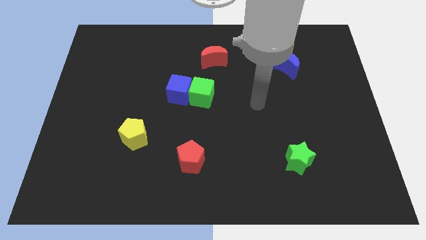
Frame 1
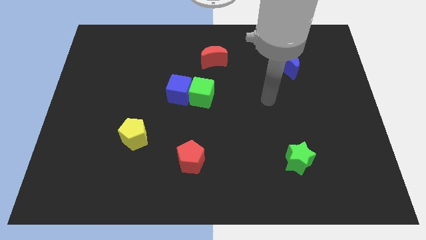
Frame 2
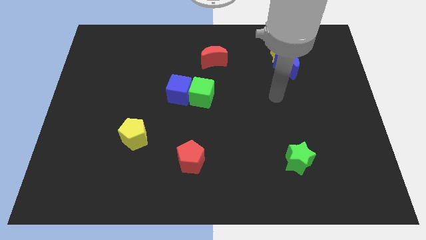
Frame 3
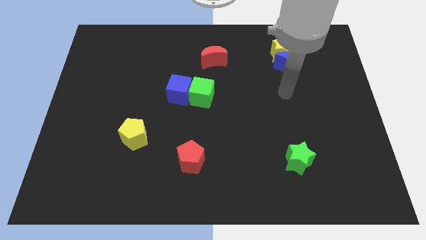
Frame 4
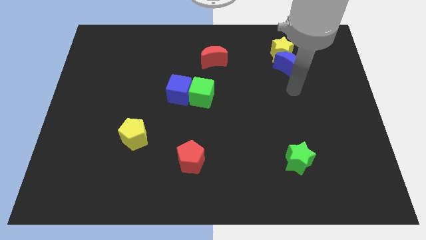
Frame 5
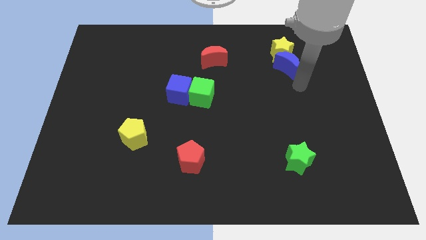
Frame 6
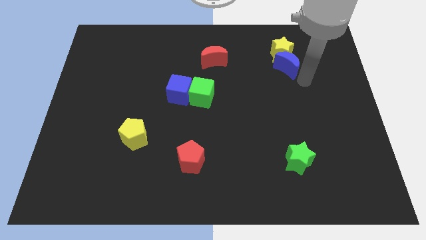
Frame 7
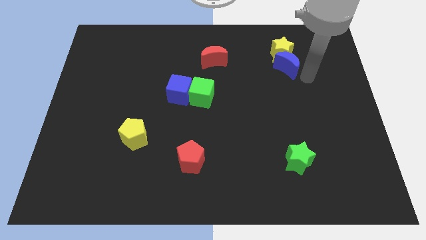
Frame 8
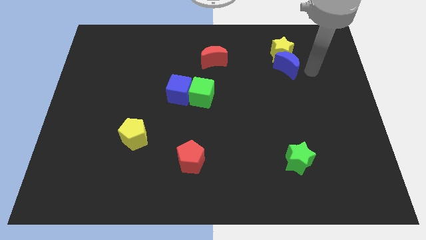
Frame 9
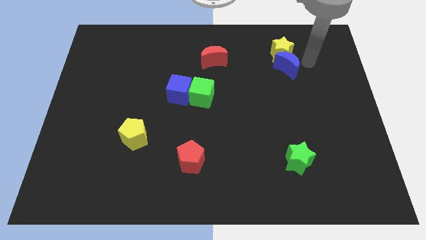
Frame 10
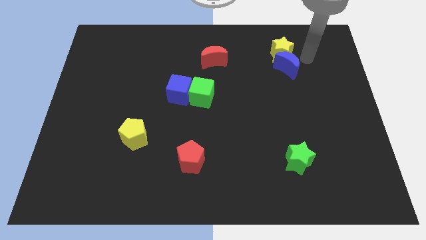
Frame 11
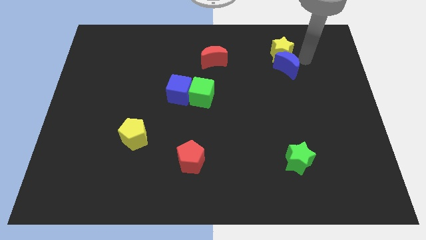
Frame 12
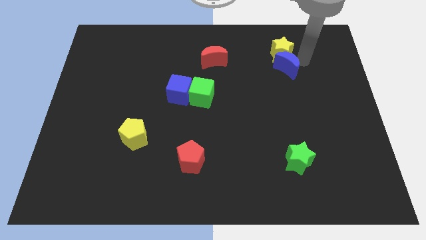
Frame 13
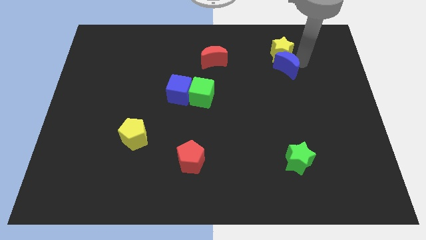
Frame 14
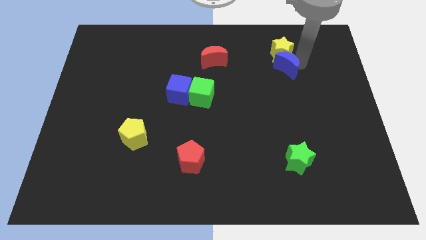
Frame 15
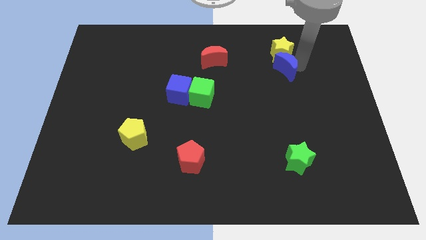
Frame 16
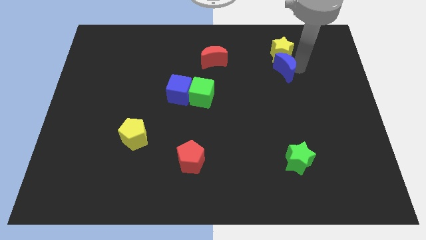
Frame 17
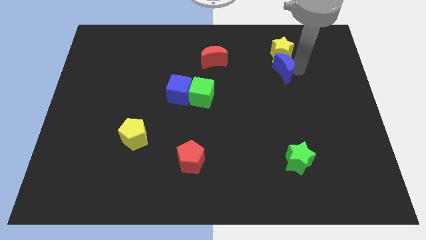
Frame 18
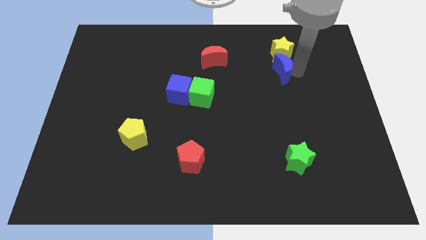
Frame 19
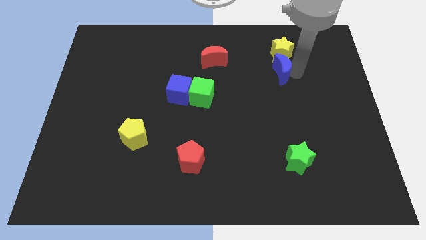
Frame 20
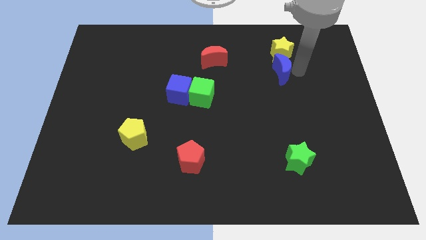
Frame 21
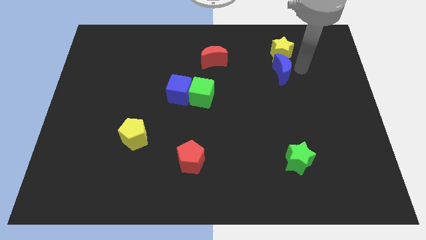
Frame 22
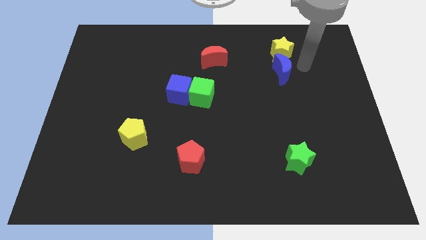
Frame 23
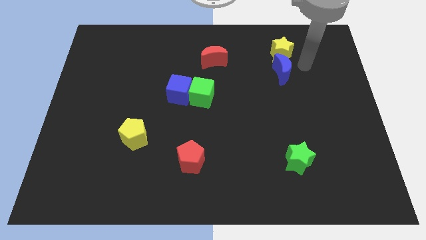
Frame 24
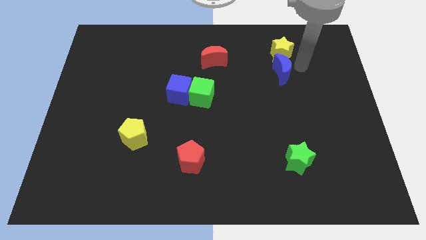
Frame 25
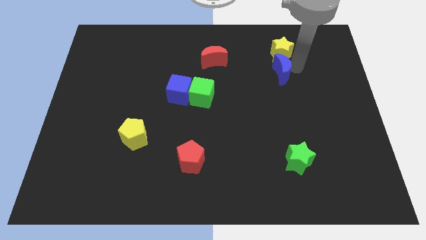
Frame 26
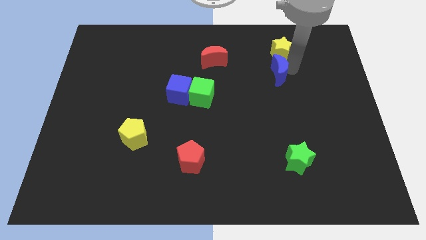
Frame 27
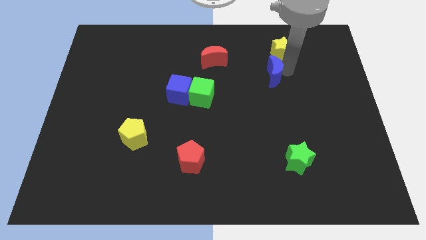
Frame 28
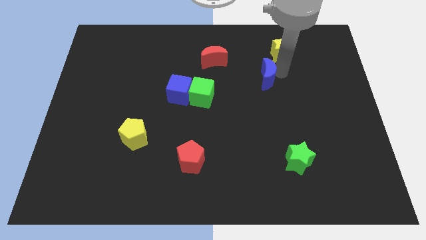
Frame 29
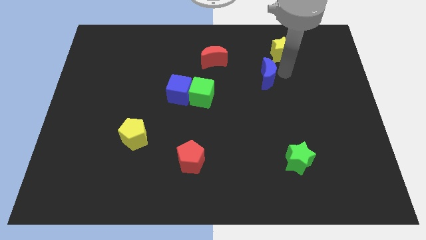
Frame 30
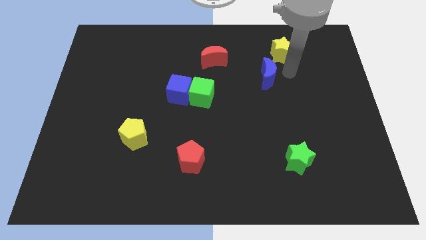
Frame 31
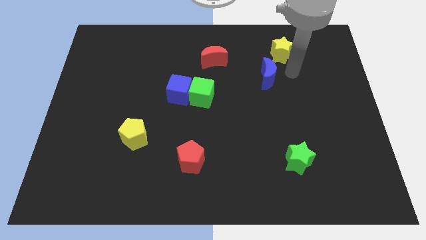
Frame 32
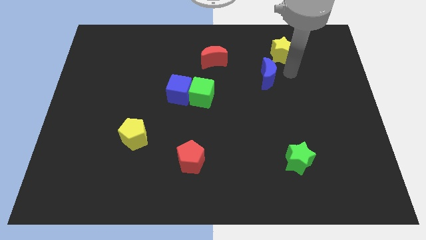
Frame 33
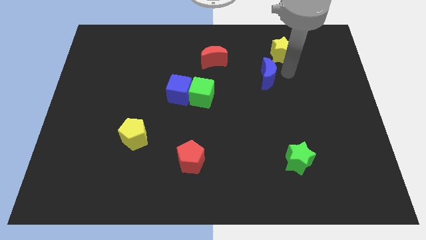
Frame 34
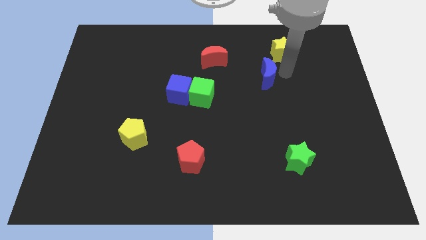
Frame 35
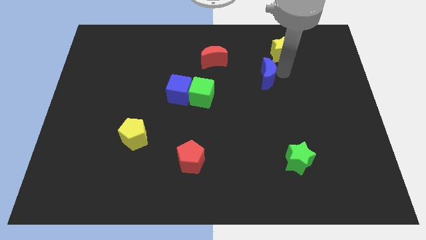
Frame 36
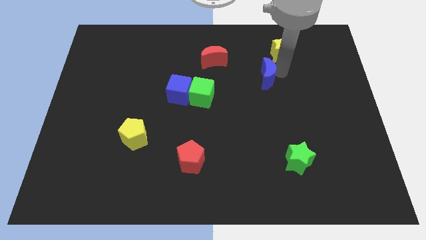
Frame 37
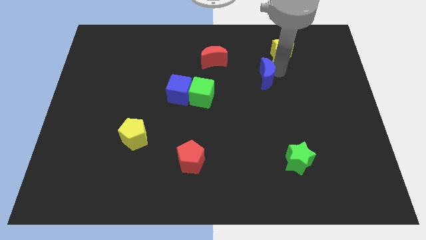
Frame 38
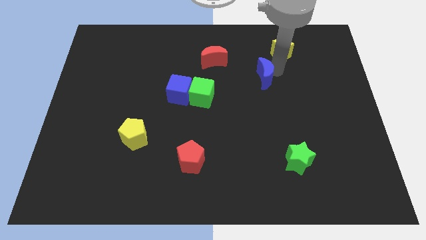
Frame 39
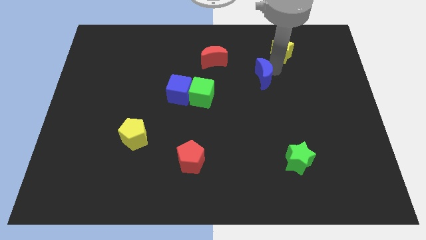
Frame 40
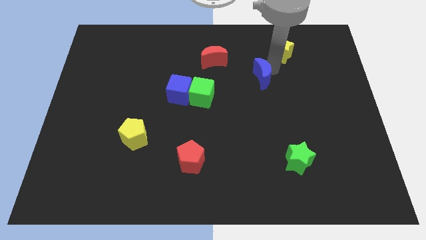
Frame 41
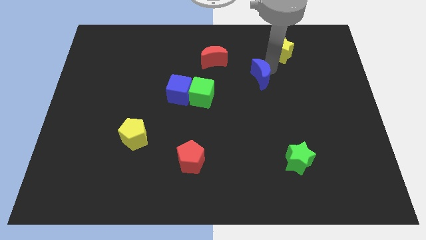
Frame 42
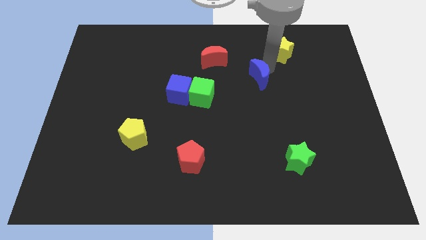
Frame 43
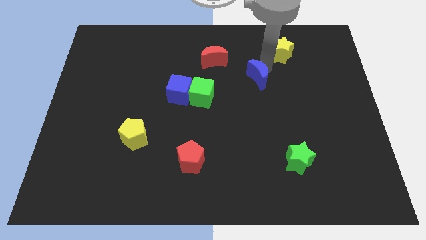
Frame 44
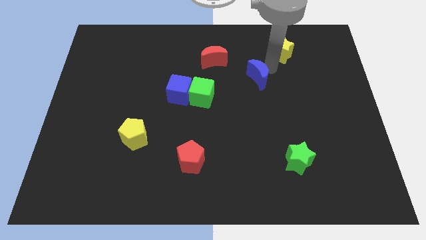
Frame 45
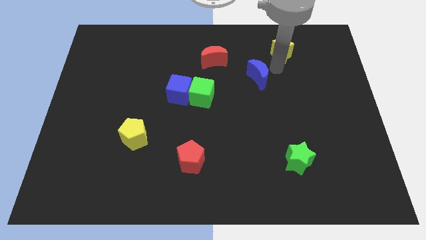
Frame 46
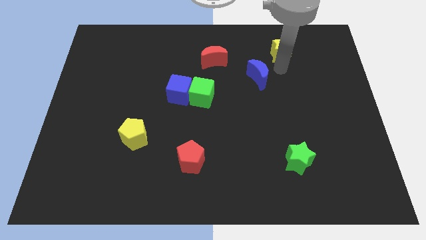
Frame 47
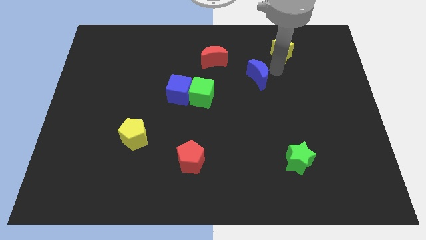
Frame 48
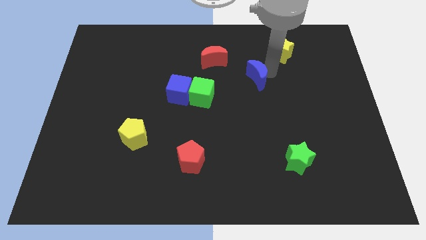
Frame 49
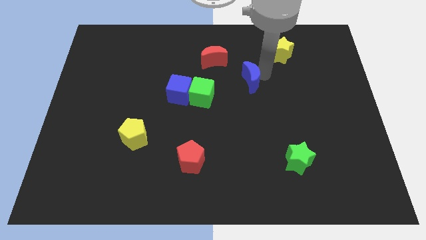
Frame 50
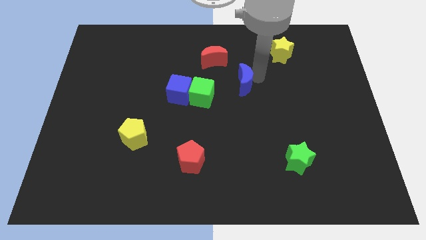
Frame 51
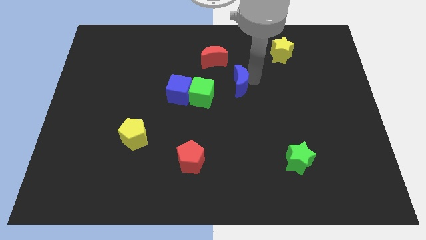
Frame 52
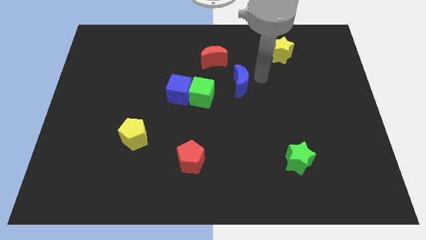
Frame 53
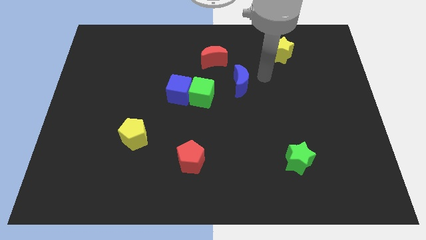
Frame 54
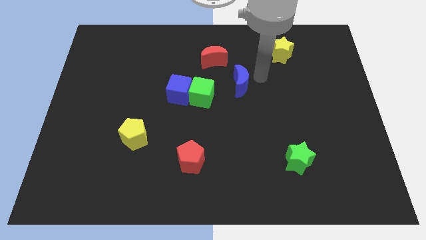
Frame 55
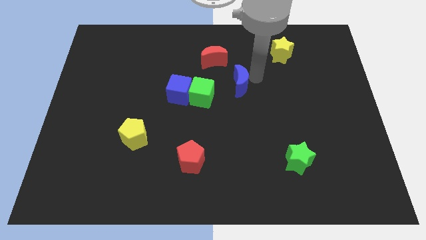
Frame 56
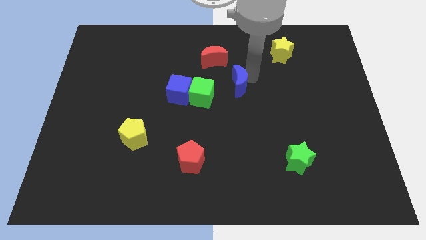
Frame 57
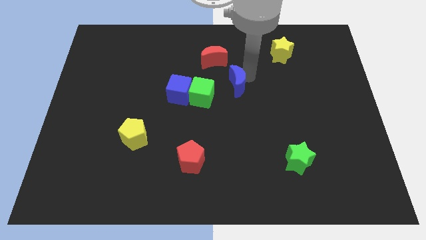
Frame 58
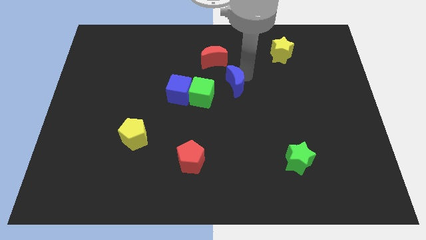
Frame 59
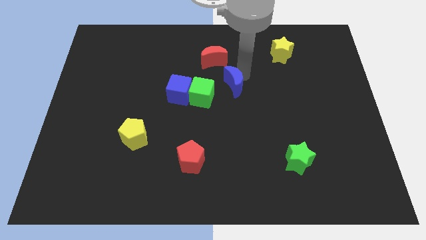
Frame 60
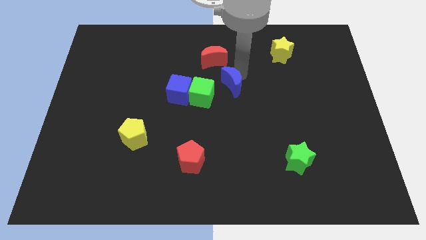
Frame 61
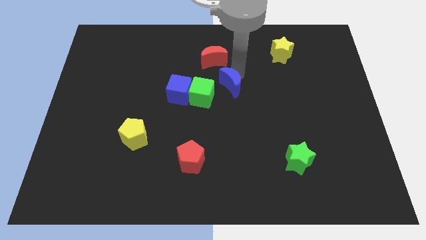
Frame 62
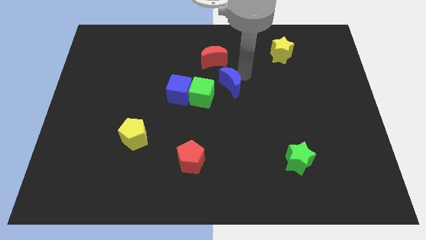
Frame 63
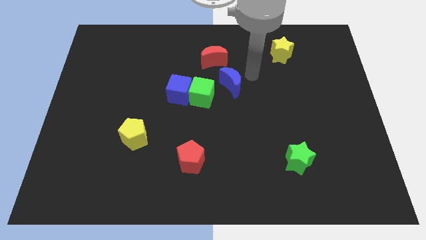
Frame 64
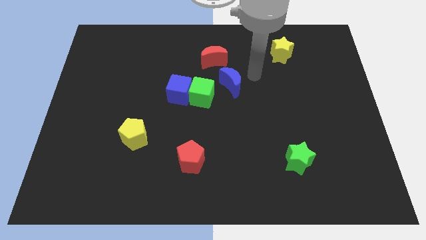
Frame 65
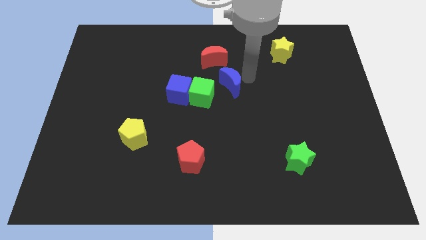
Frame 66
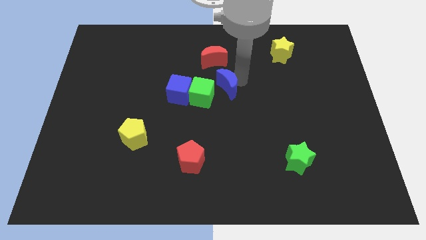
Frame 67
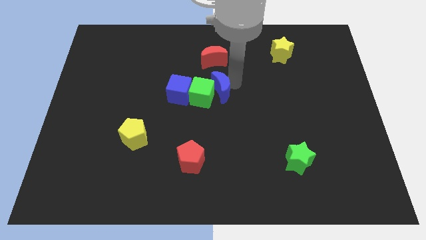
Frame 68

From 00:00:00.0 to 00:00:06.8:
push the blue moon towards the green cube
